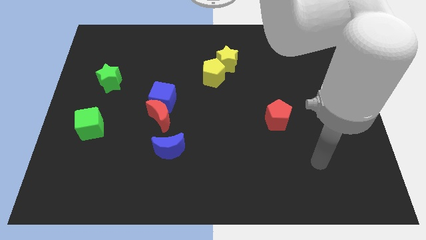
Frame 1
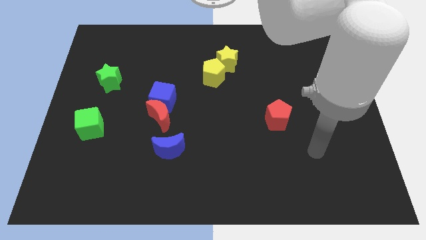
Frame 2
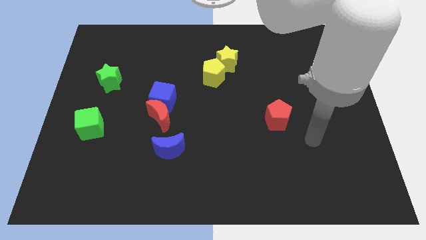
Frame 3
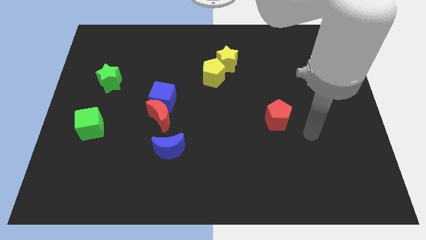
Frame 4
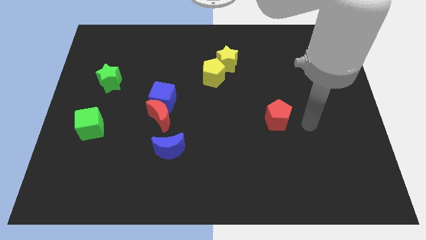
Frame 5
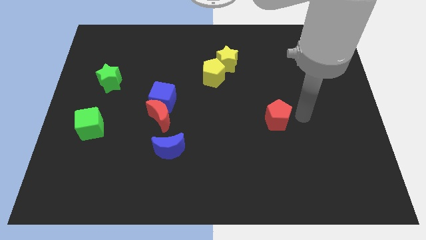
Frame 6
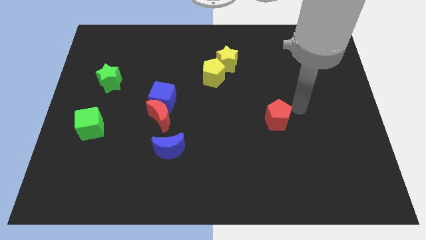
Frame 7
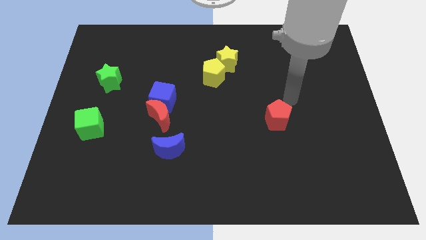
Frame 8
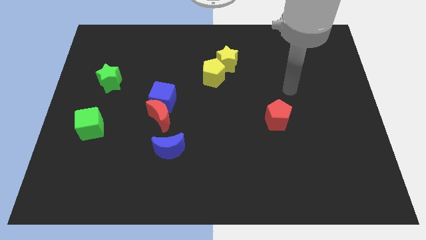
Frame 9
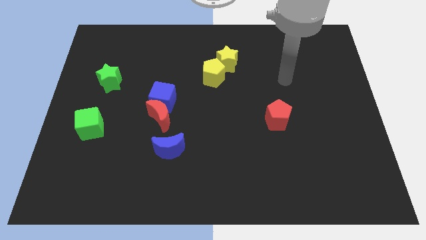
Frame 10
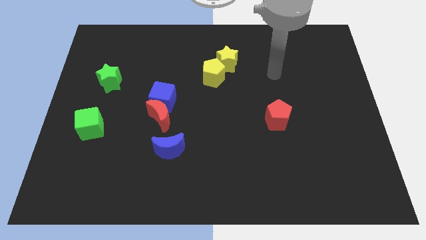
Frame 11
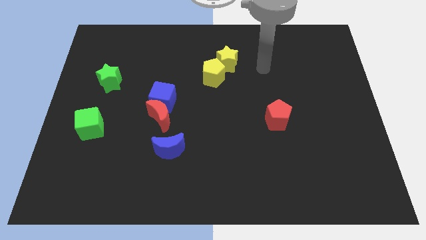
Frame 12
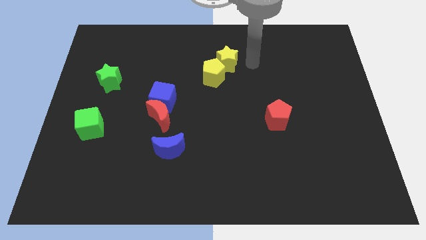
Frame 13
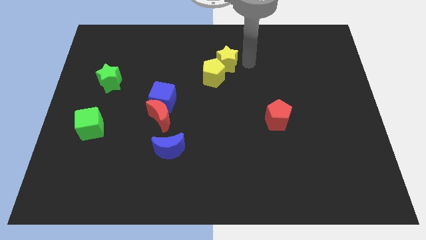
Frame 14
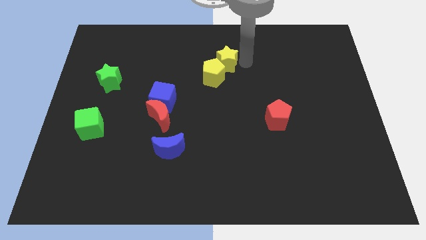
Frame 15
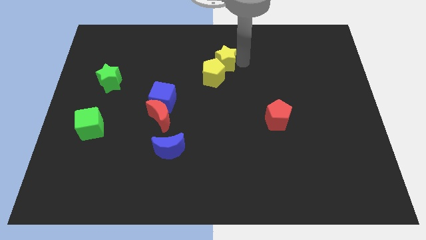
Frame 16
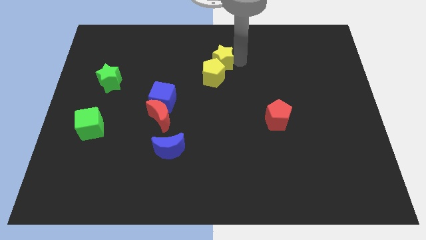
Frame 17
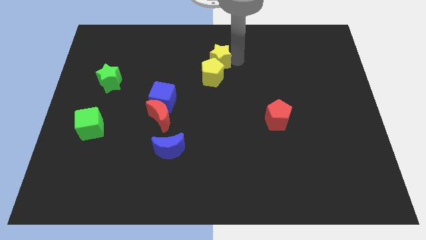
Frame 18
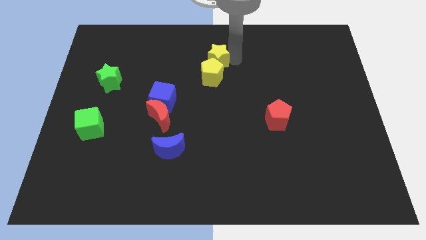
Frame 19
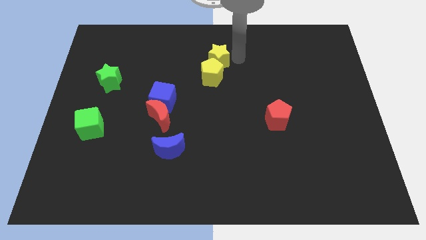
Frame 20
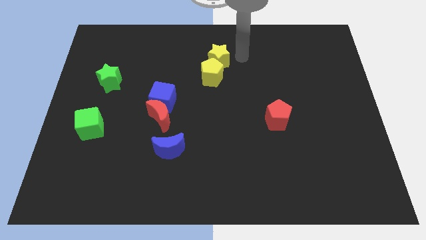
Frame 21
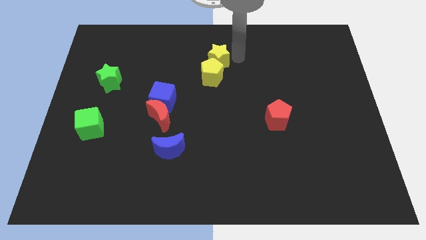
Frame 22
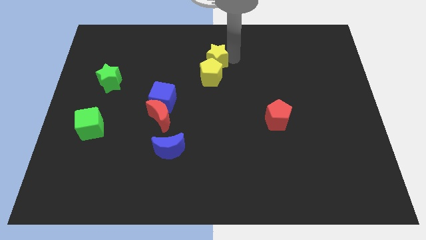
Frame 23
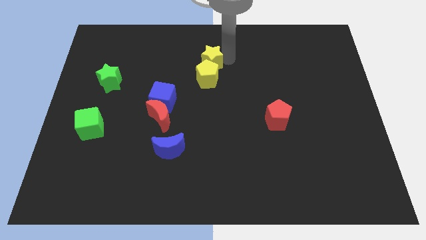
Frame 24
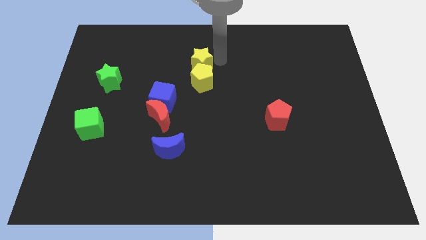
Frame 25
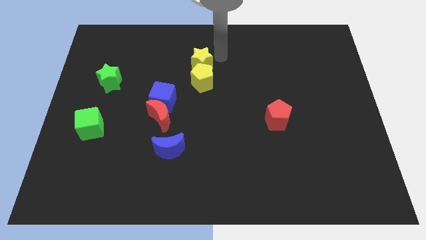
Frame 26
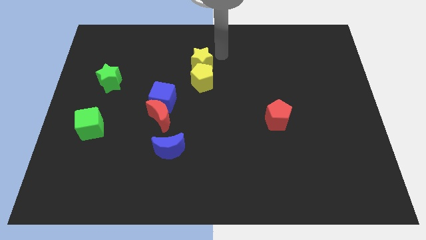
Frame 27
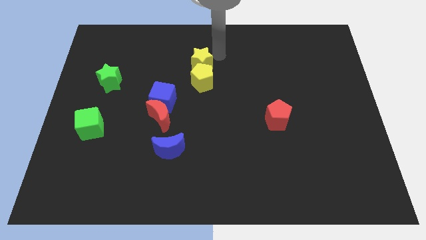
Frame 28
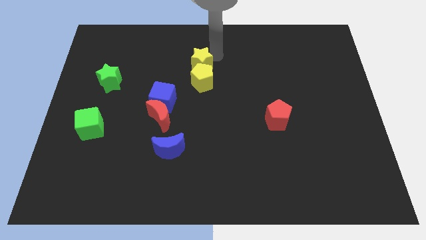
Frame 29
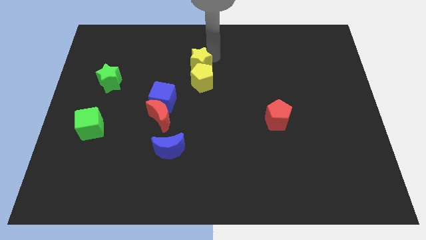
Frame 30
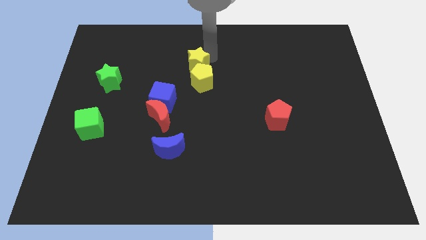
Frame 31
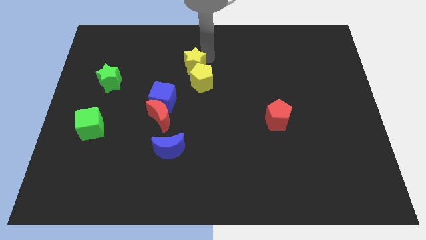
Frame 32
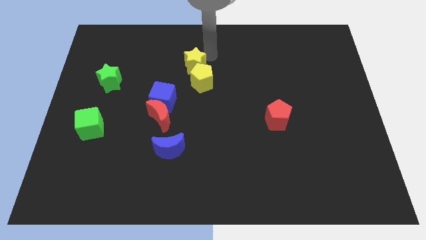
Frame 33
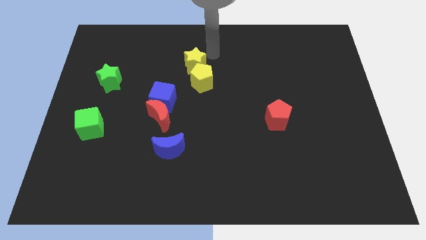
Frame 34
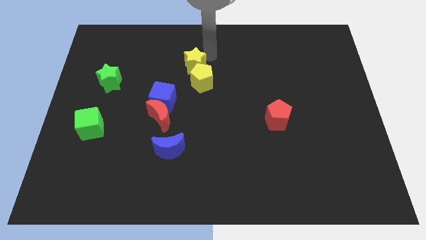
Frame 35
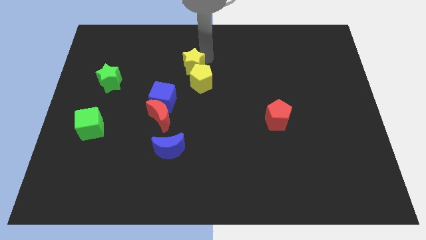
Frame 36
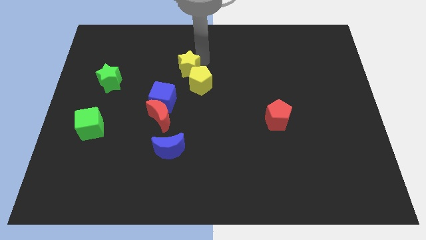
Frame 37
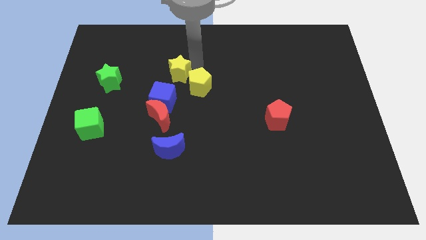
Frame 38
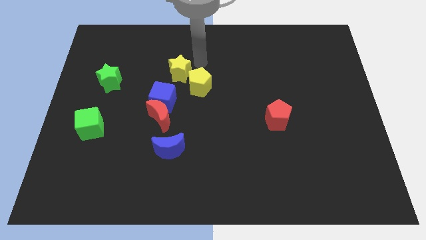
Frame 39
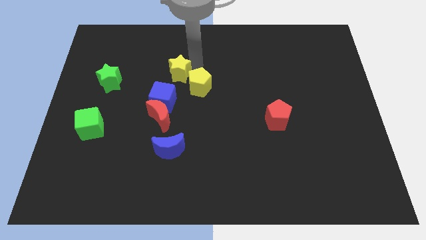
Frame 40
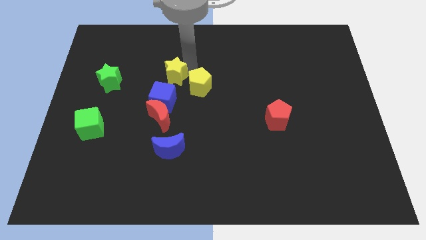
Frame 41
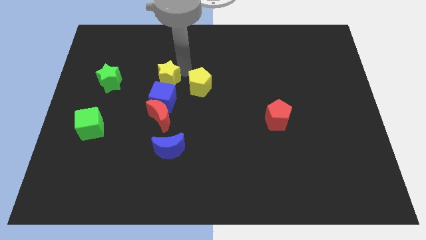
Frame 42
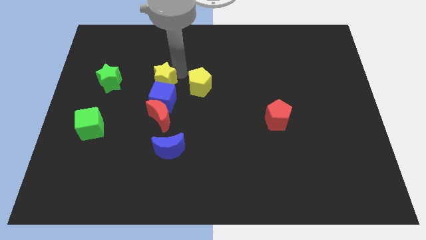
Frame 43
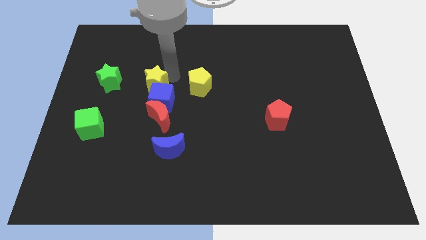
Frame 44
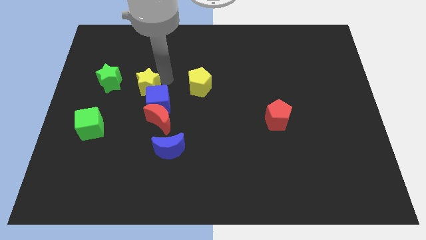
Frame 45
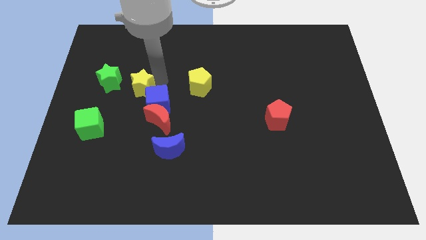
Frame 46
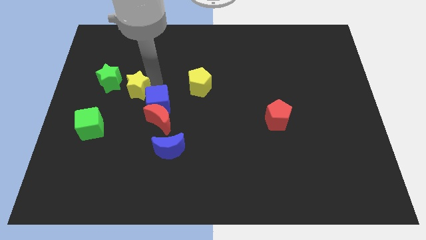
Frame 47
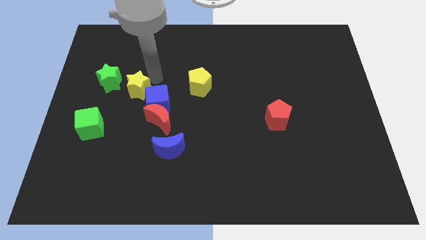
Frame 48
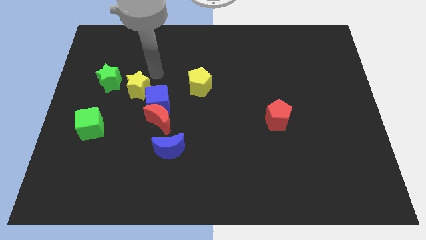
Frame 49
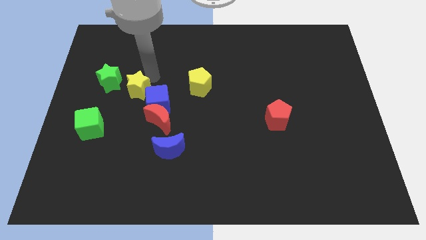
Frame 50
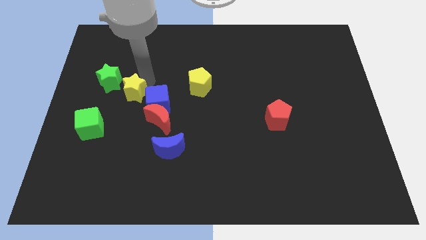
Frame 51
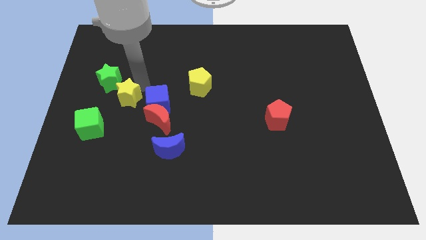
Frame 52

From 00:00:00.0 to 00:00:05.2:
put the yellow star diagonally up and to the right of the green cube

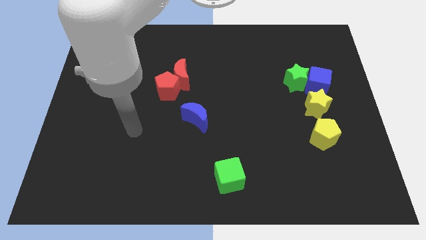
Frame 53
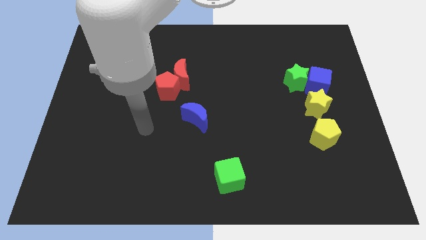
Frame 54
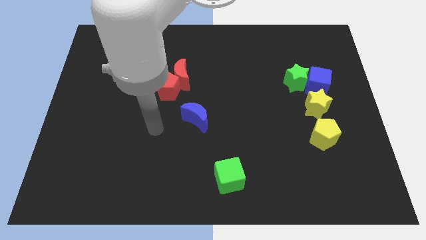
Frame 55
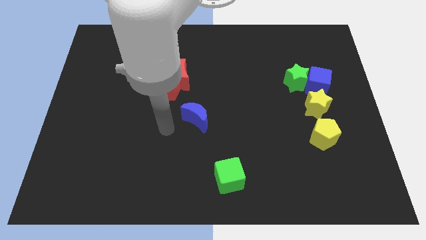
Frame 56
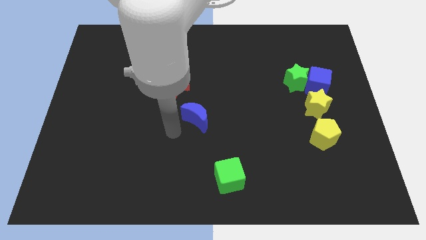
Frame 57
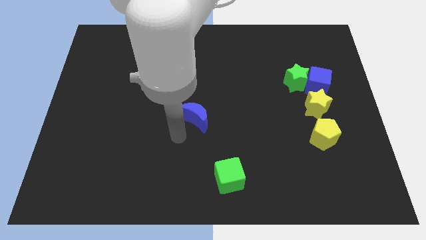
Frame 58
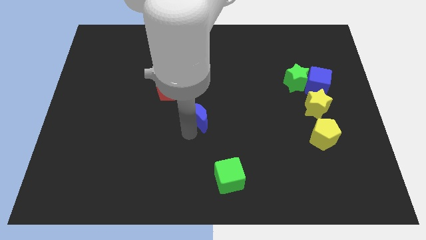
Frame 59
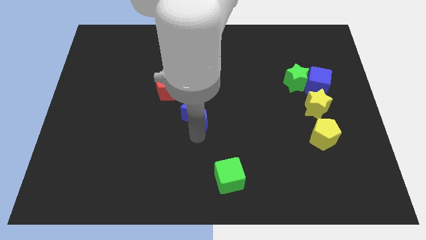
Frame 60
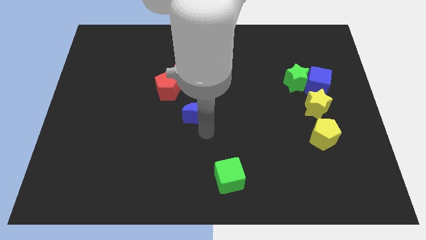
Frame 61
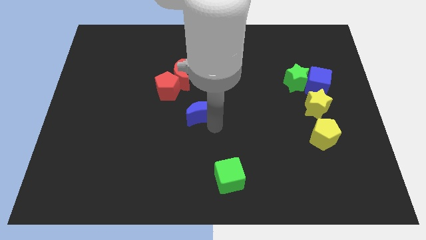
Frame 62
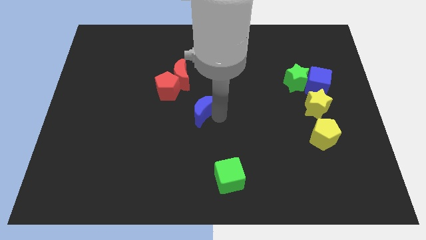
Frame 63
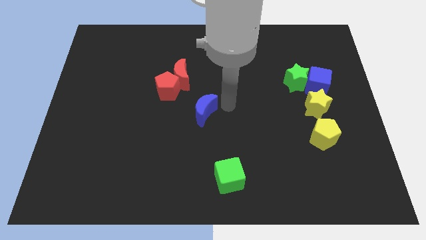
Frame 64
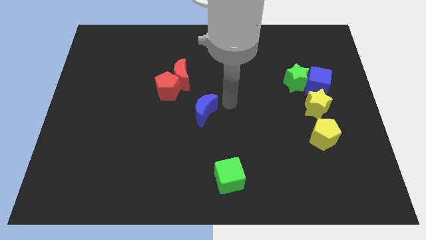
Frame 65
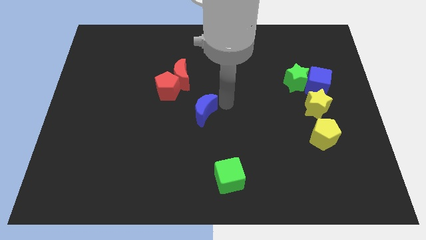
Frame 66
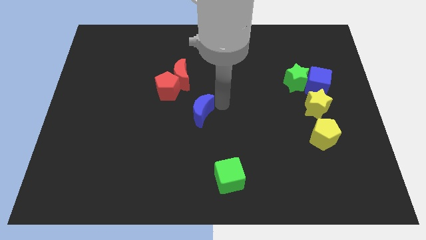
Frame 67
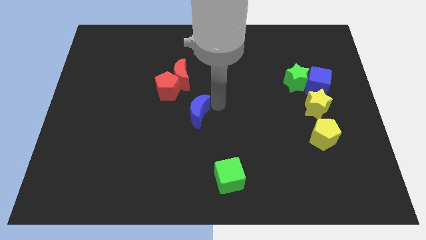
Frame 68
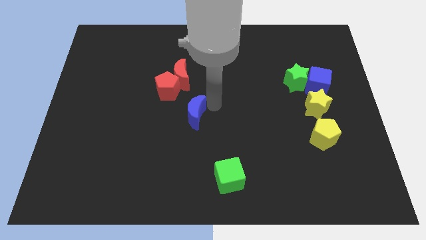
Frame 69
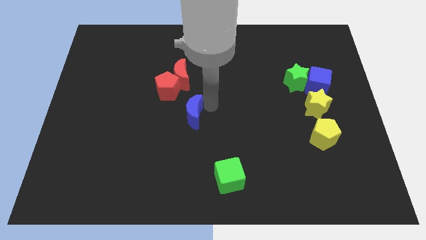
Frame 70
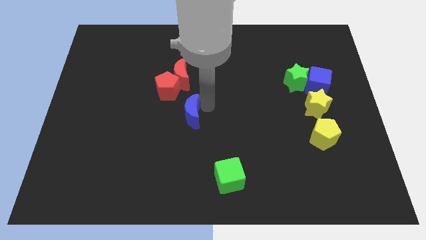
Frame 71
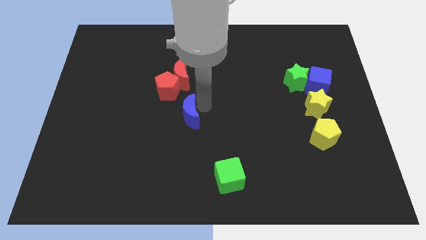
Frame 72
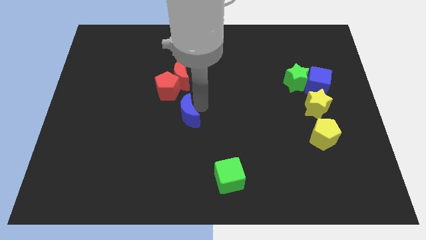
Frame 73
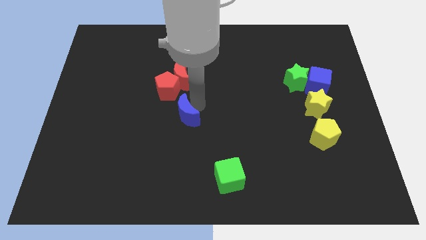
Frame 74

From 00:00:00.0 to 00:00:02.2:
slide the blue moon below the red pentagon
